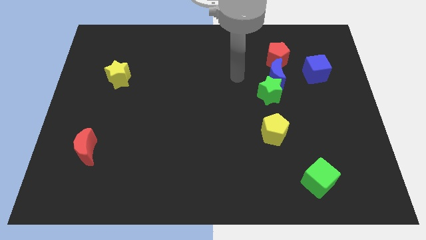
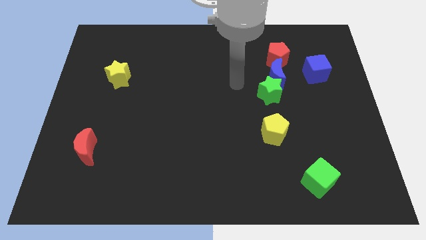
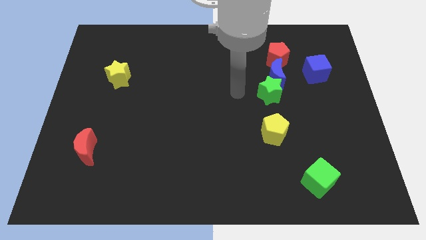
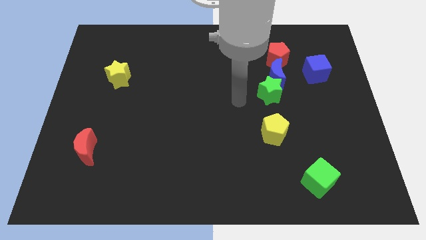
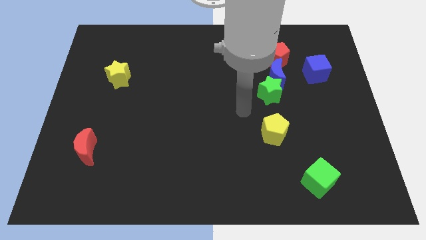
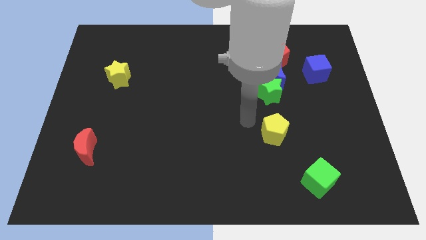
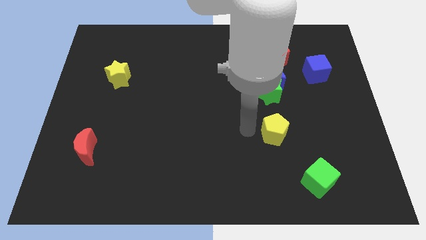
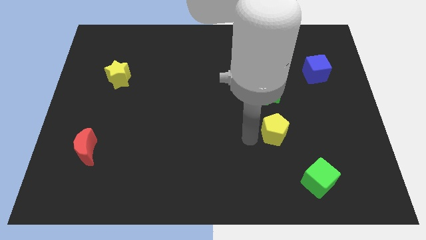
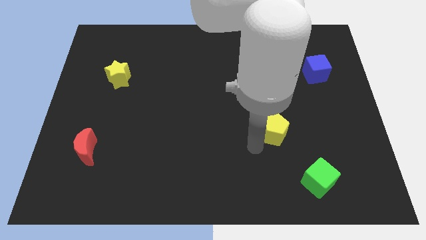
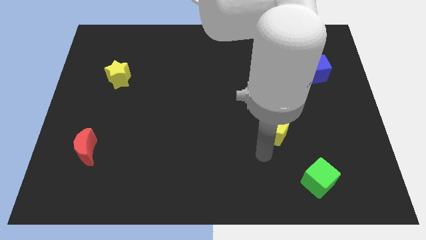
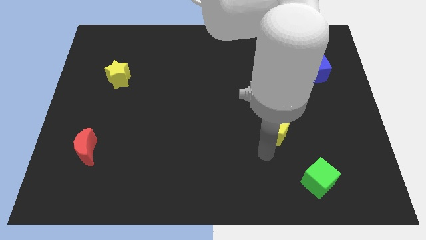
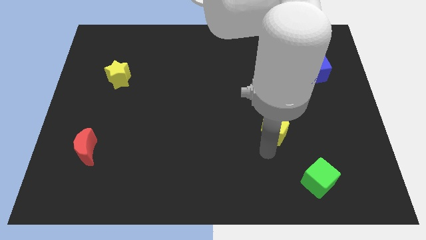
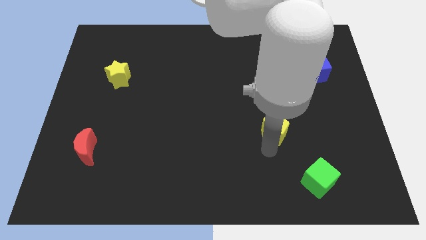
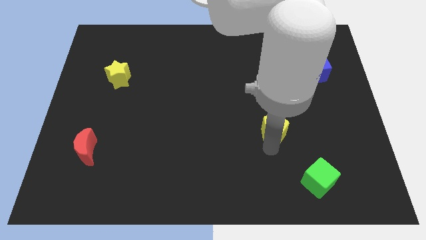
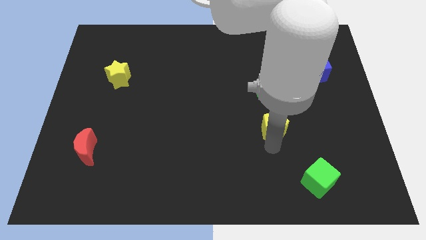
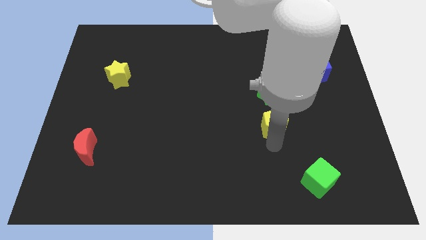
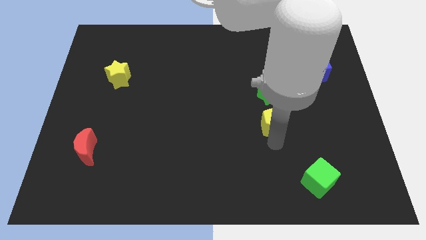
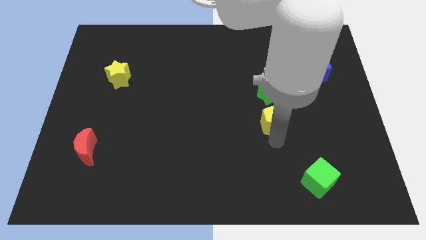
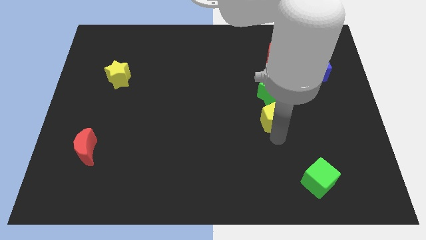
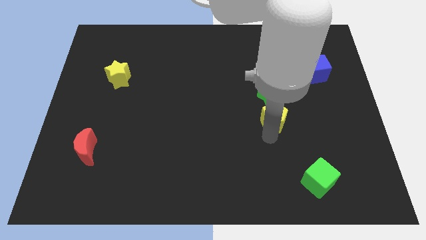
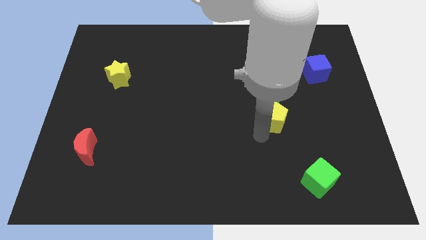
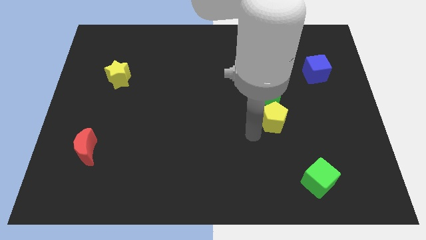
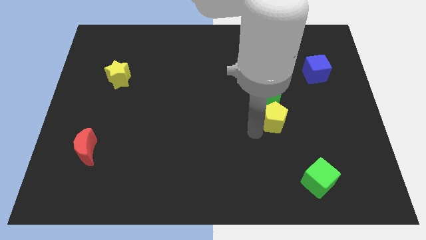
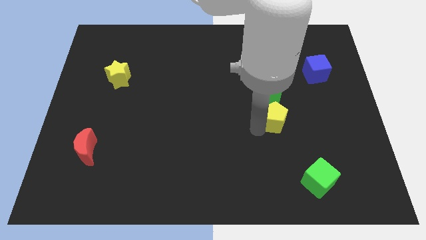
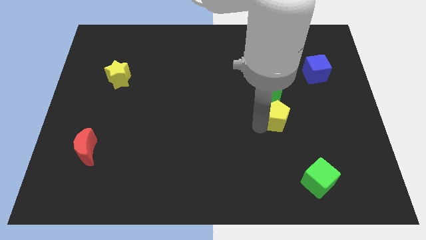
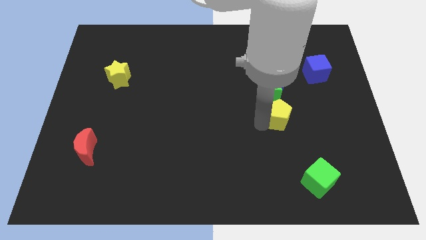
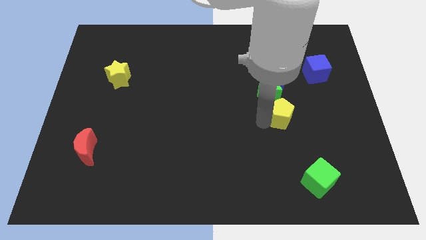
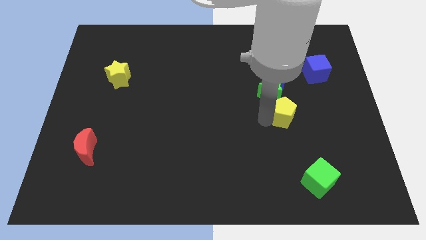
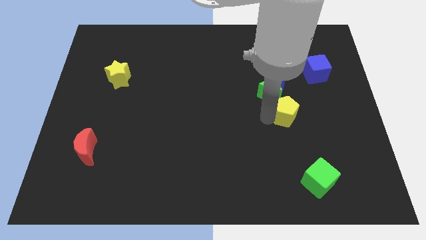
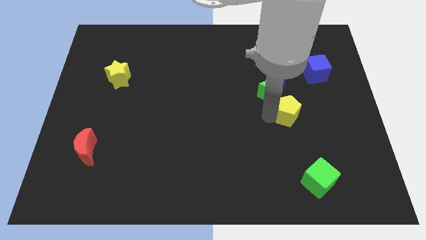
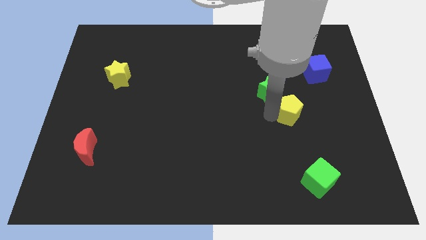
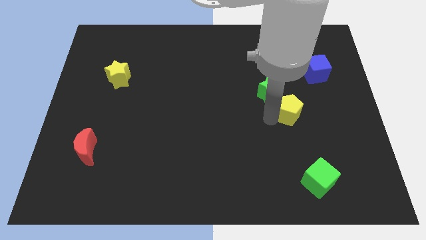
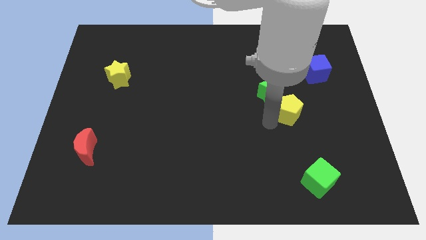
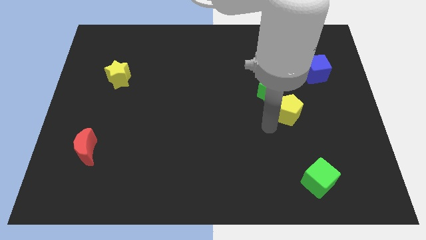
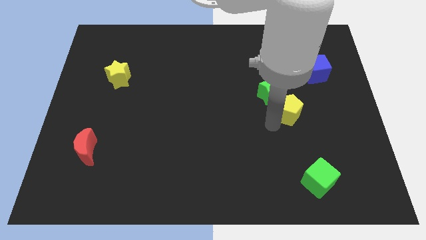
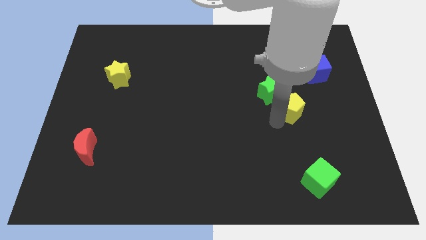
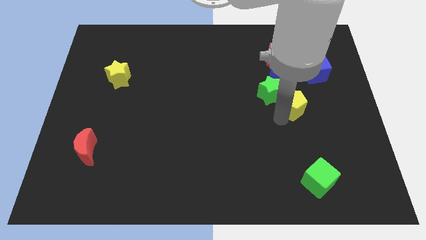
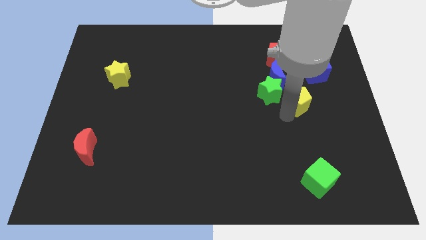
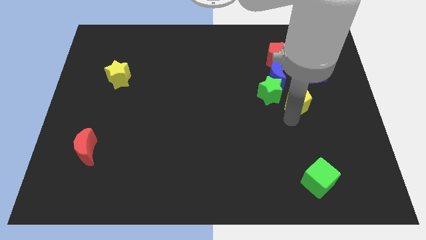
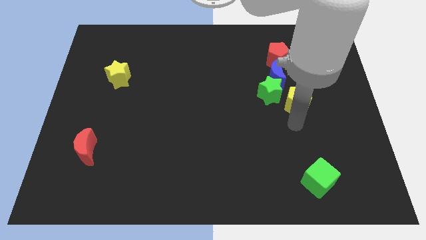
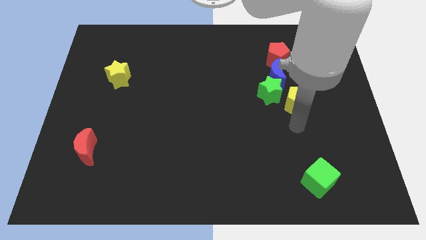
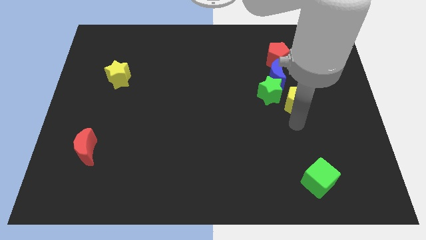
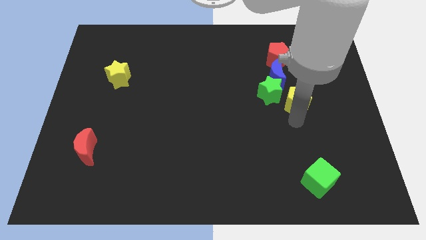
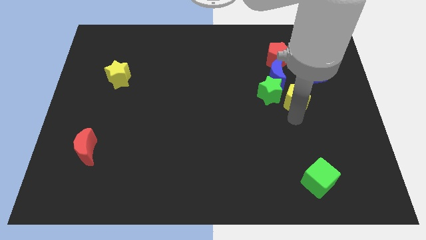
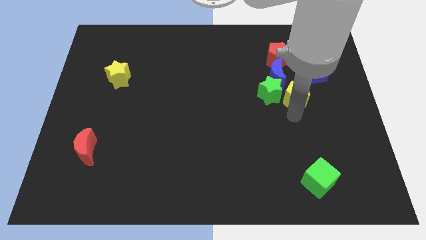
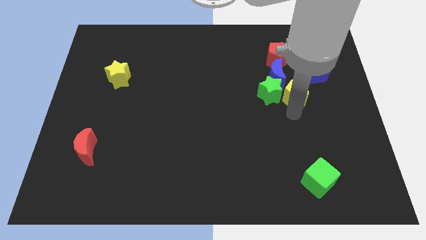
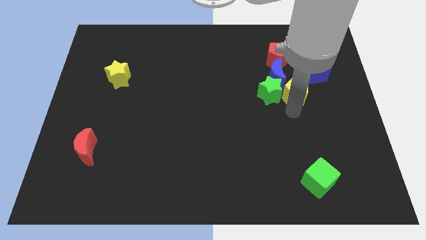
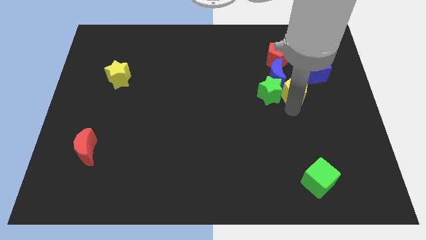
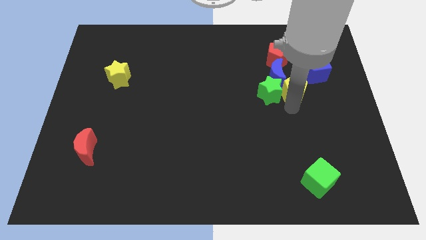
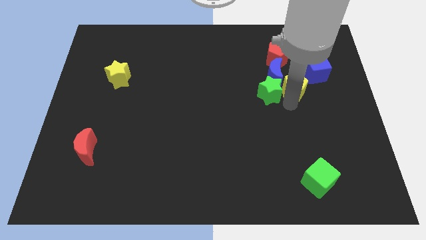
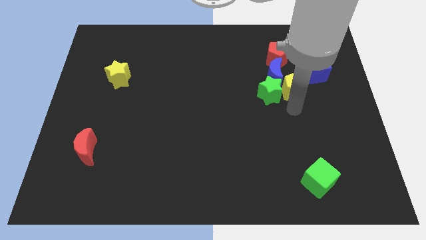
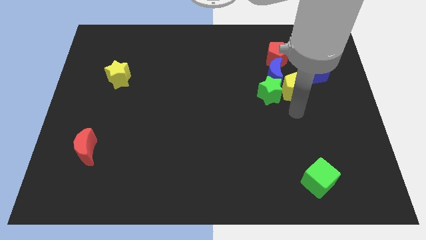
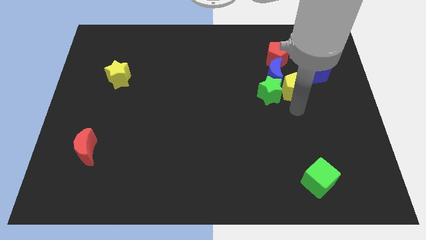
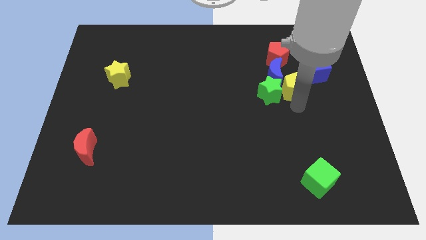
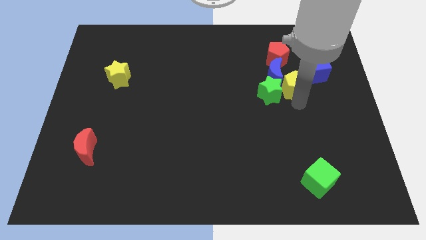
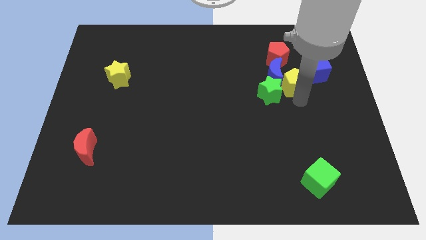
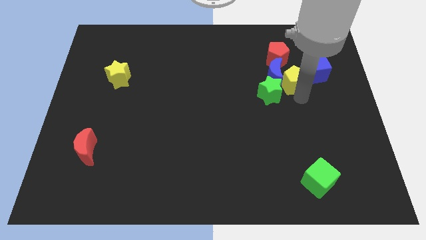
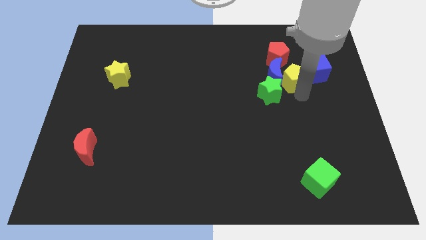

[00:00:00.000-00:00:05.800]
put the yellow pentagon diagonally up and to the right of the blue moon

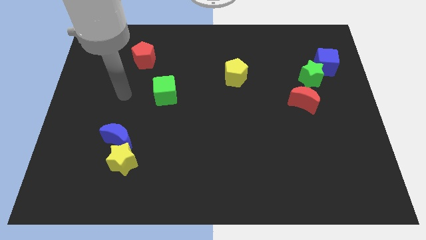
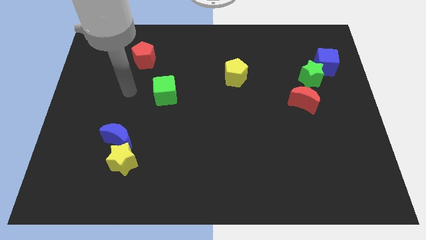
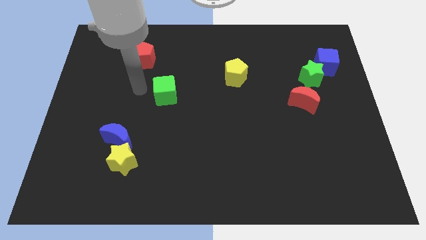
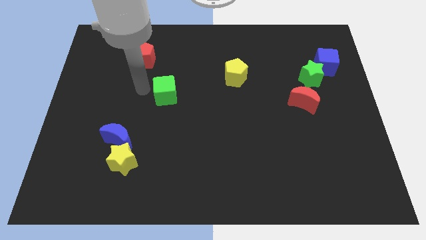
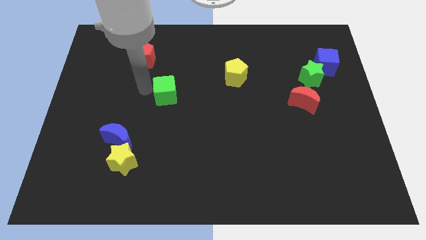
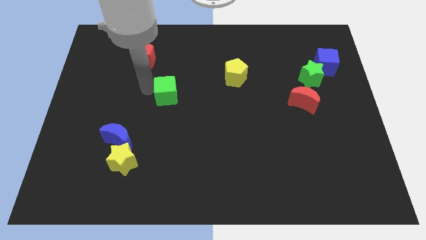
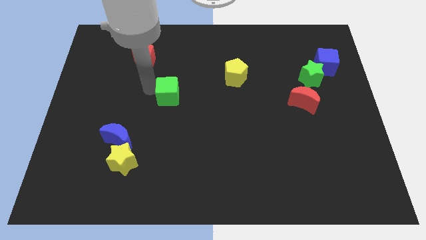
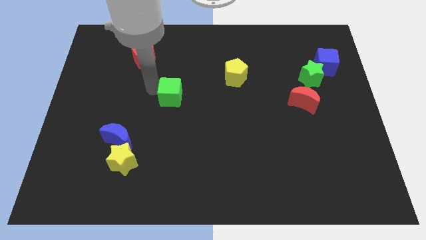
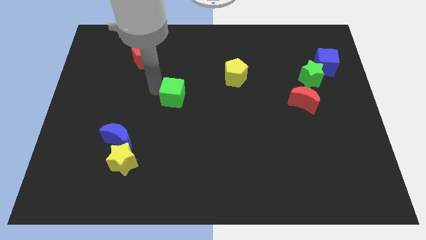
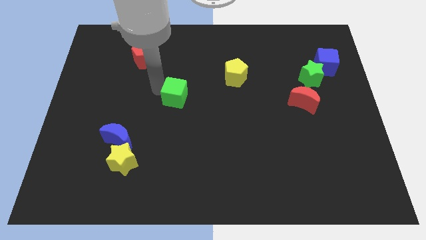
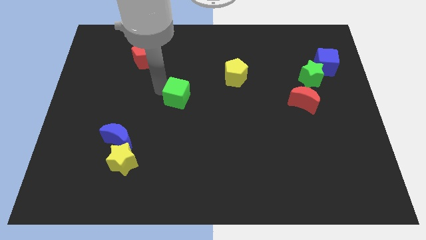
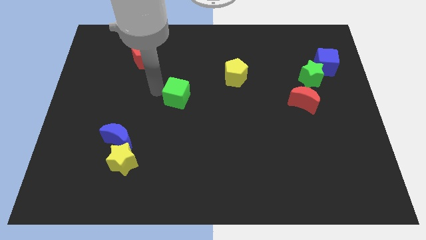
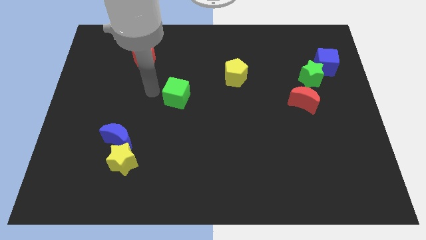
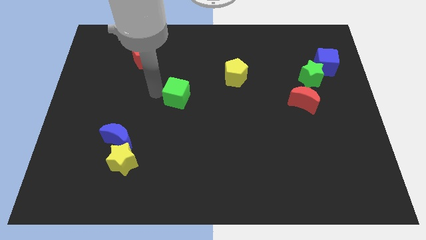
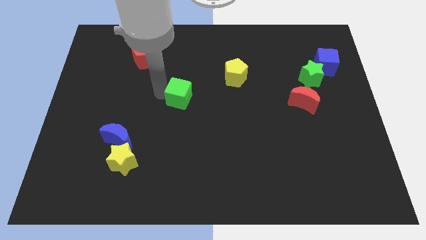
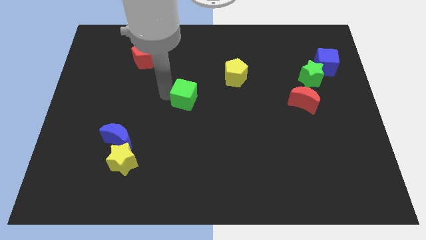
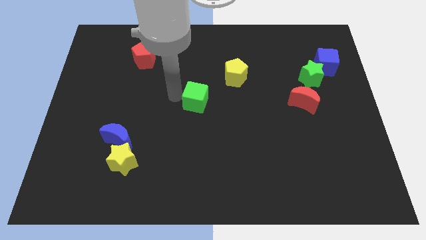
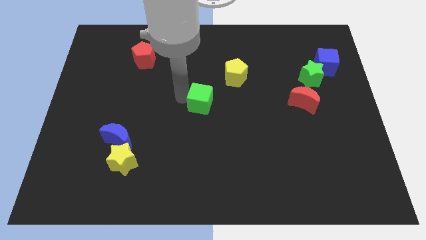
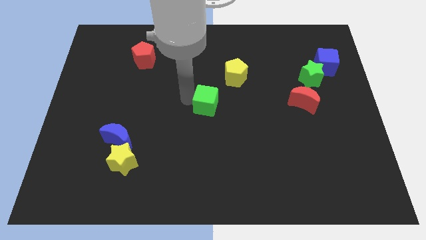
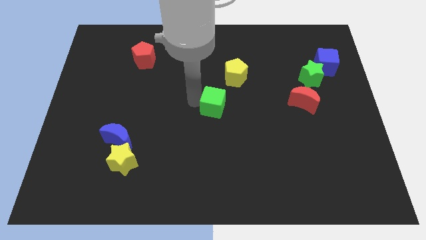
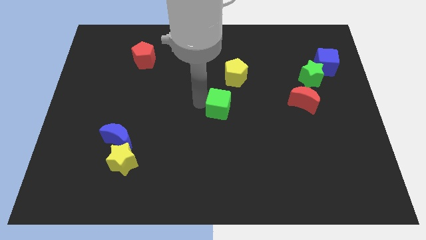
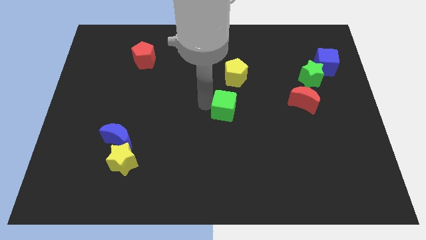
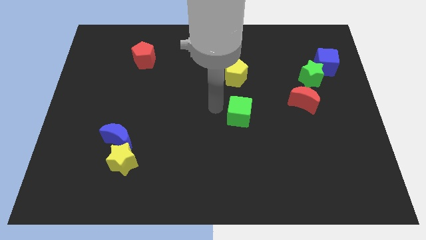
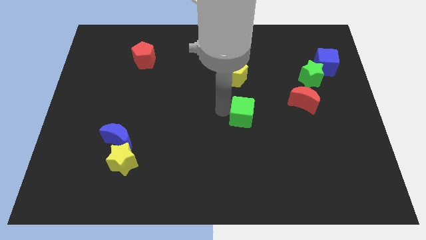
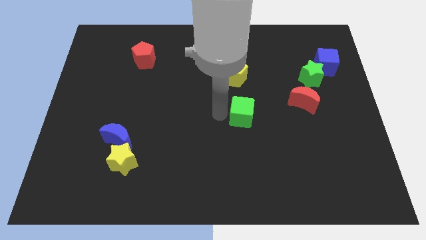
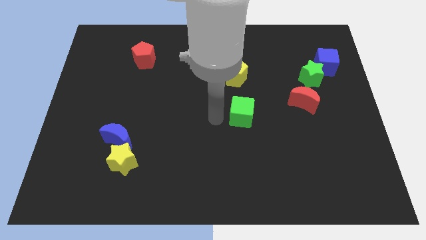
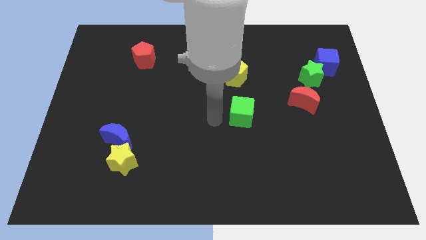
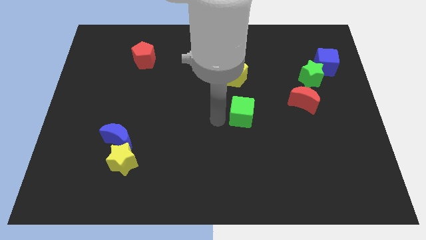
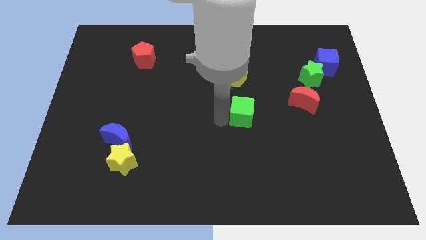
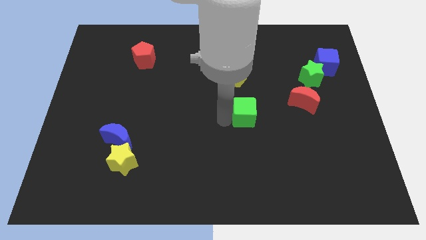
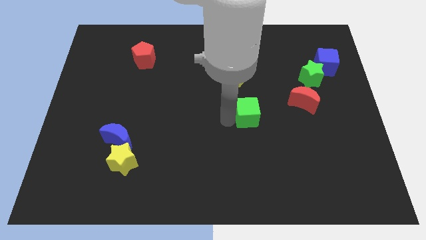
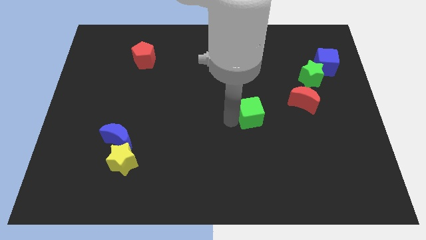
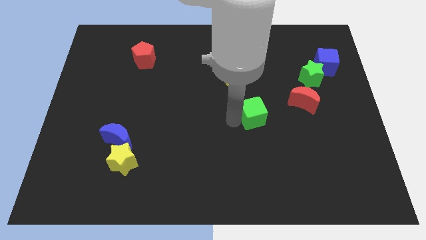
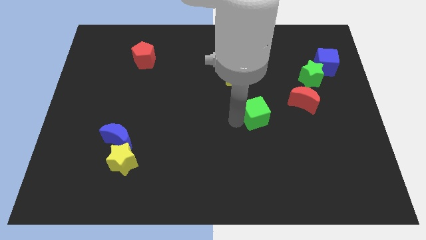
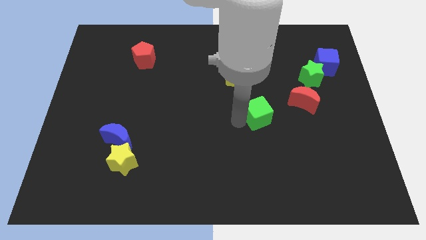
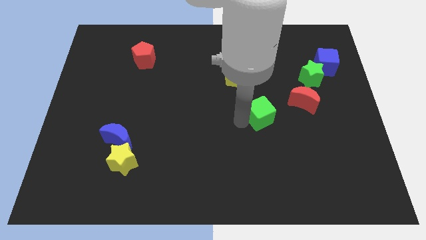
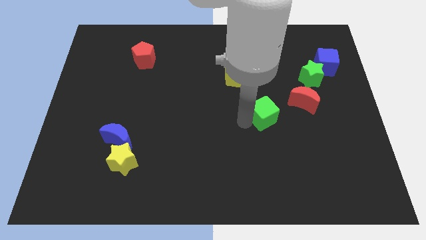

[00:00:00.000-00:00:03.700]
put the green cube to the bottom left side of the red moon
